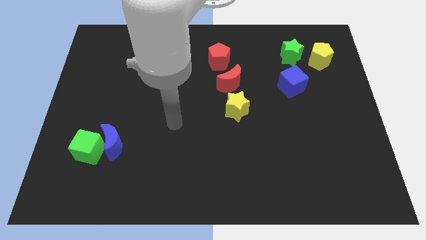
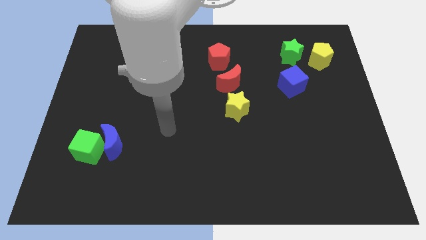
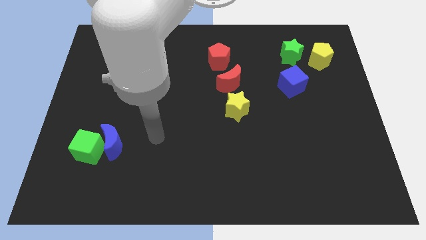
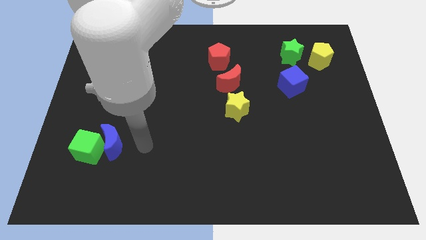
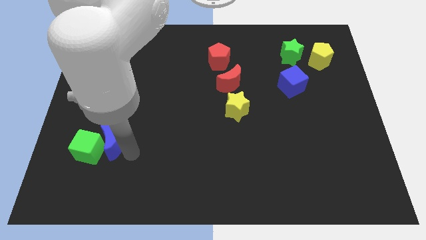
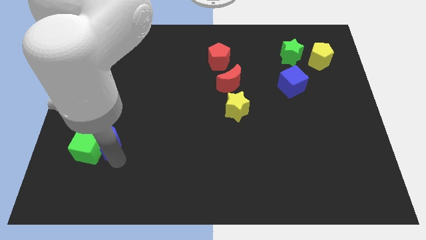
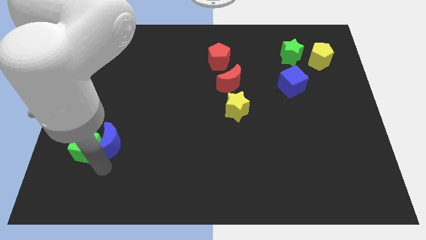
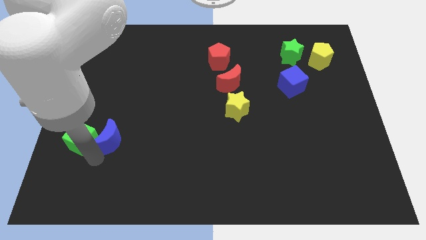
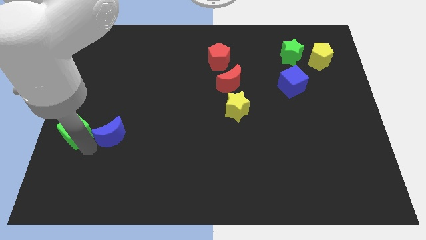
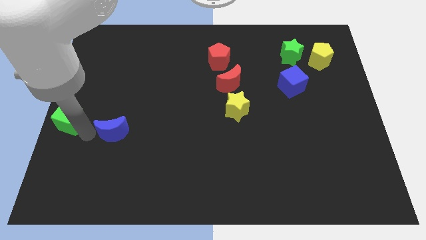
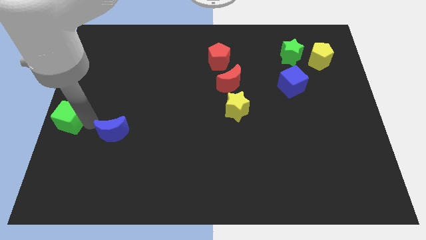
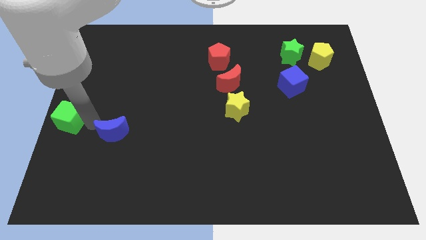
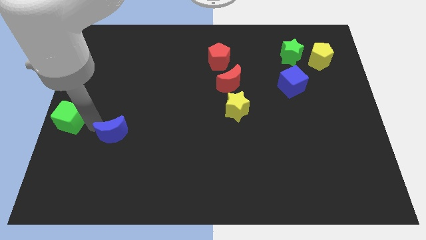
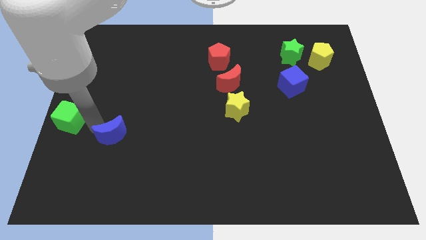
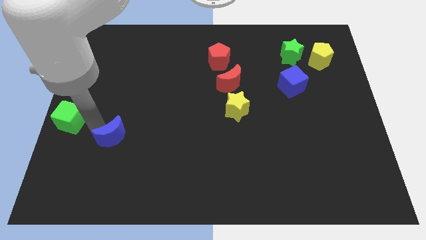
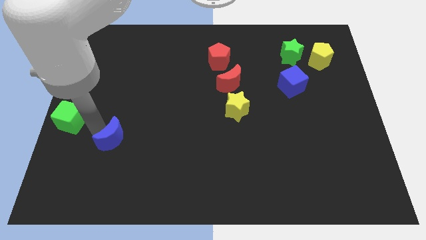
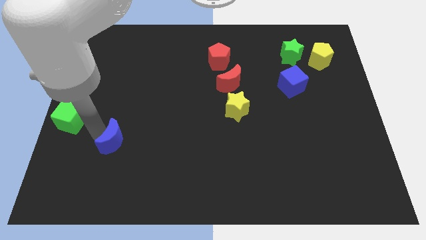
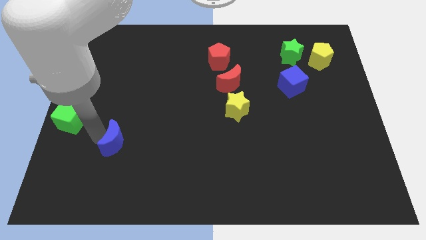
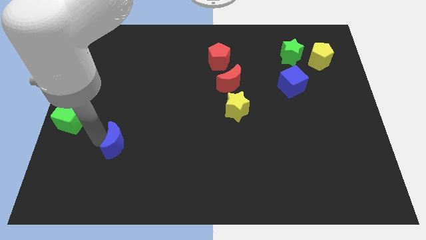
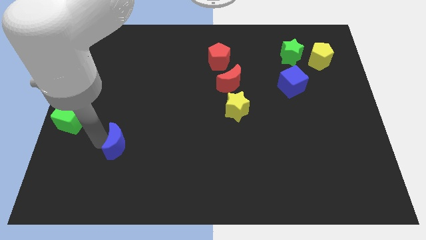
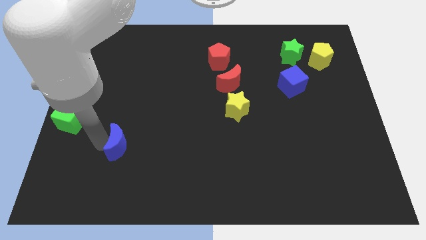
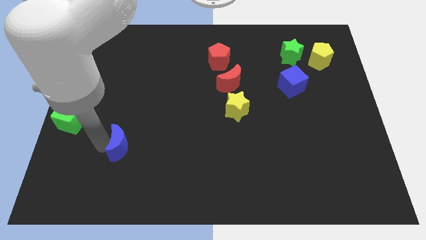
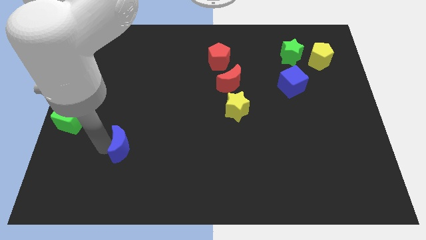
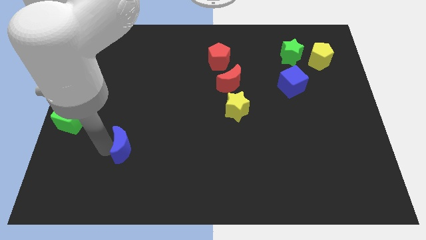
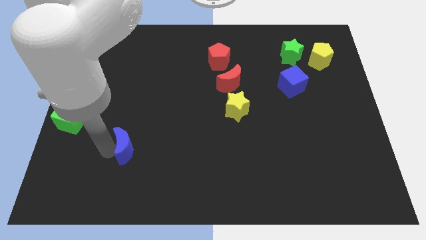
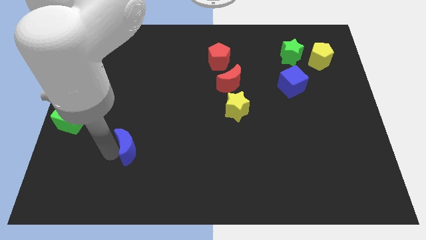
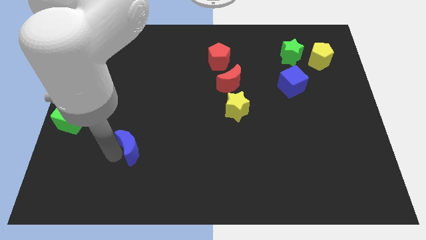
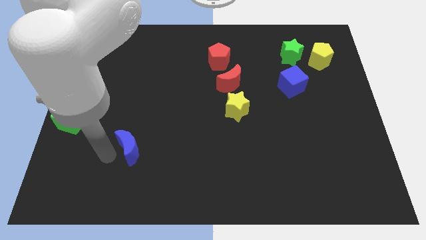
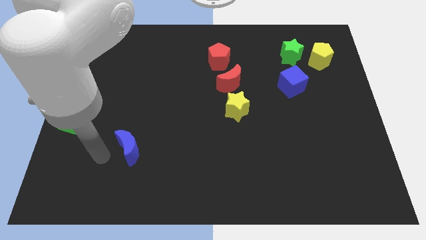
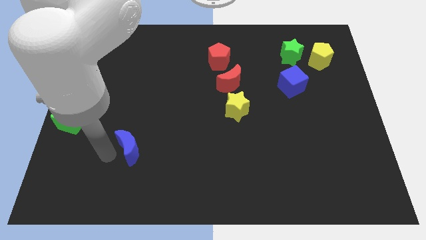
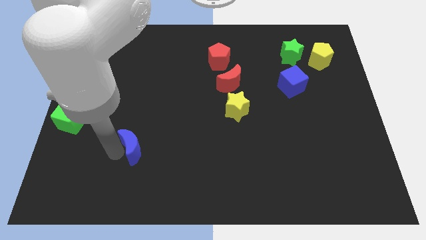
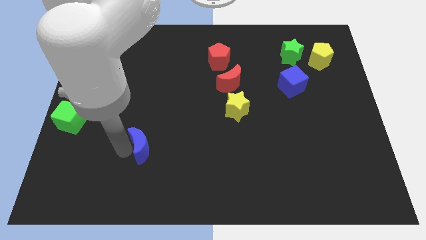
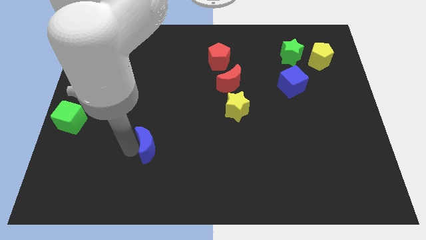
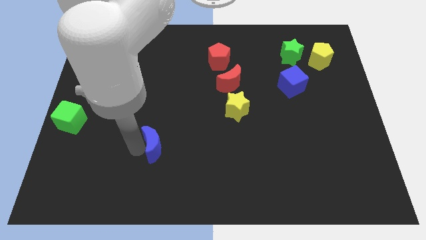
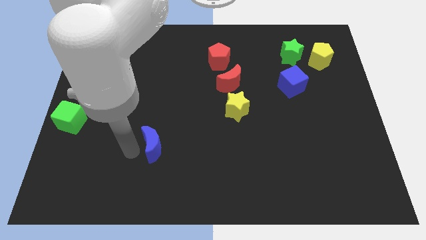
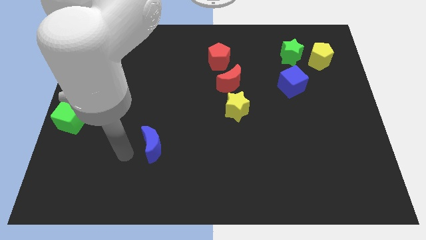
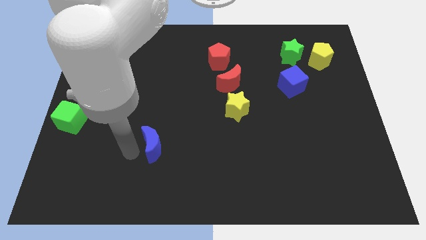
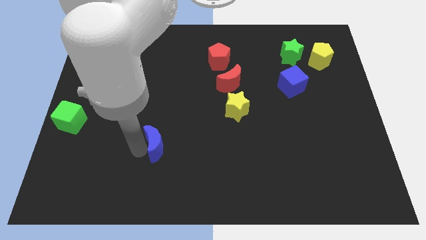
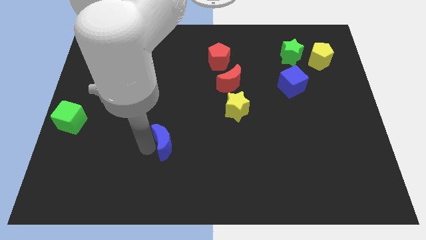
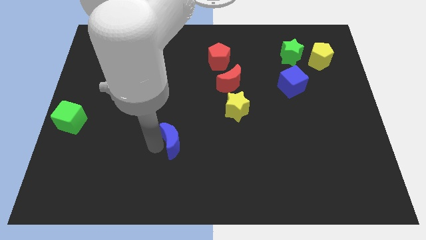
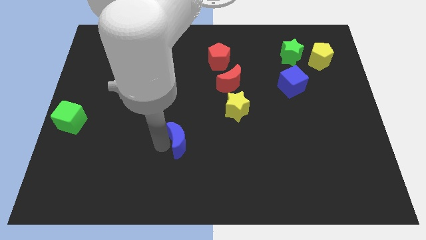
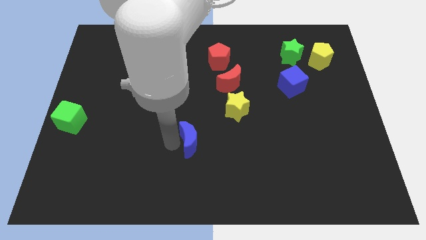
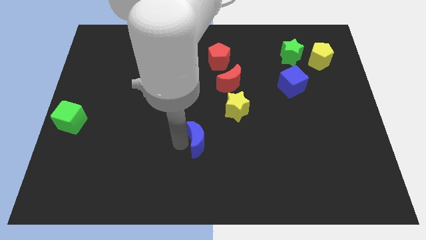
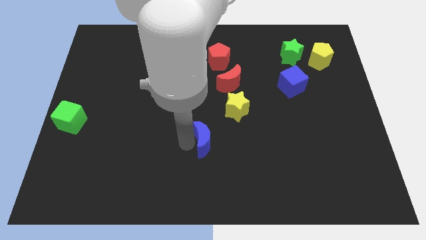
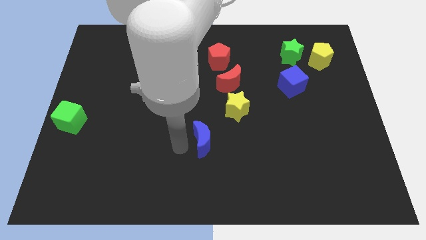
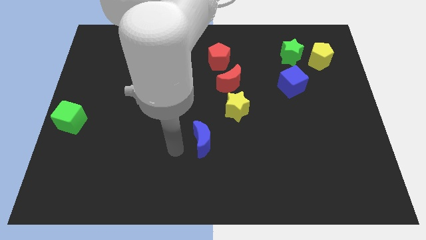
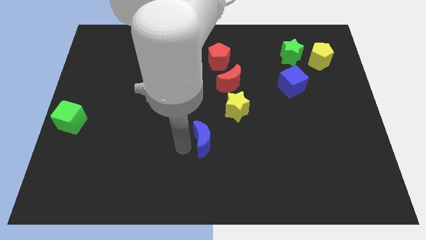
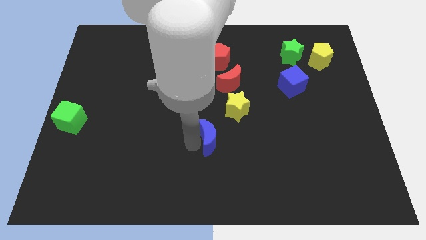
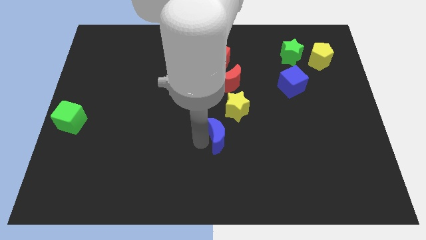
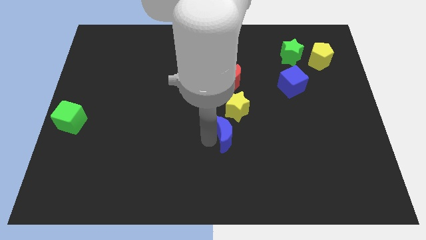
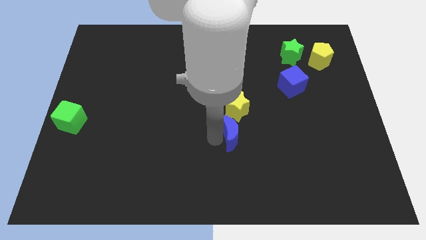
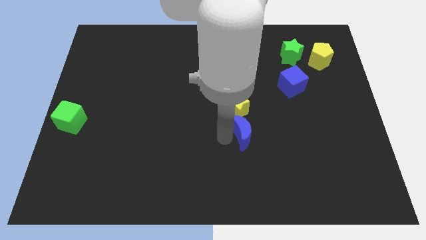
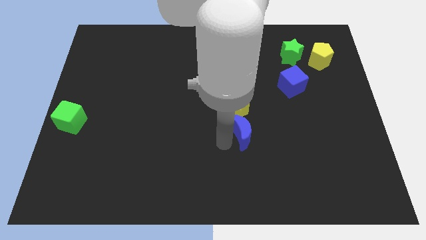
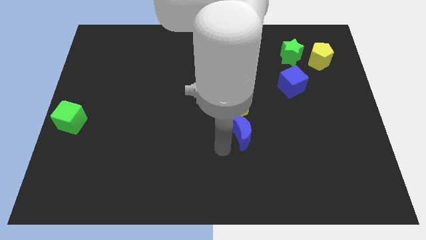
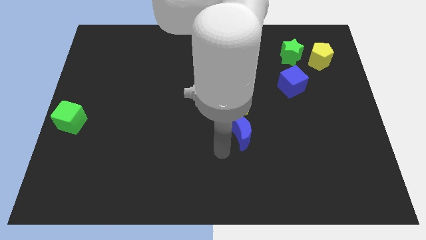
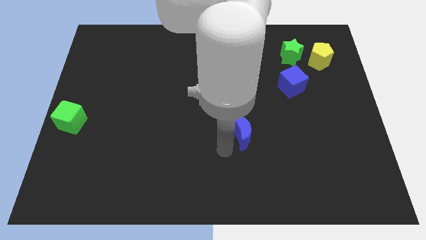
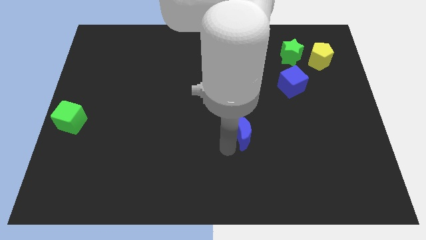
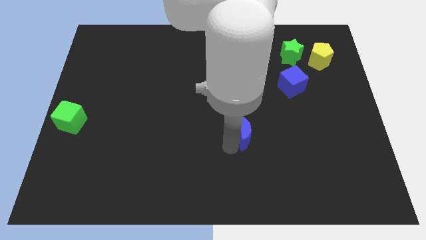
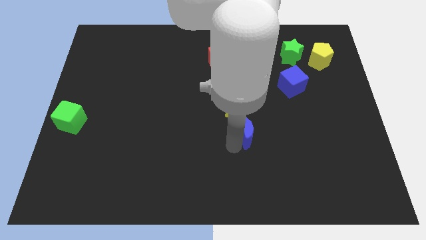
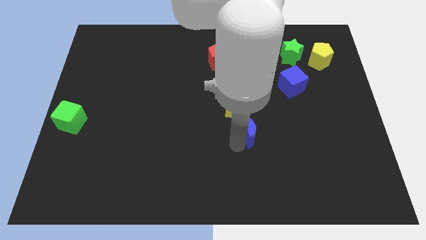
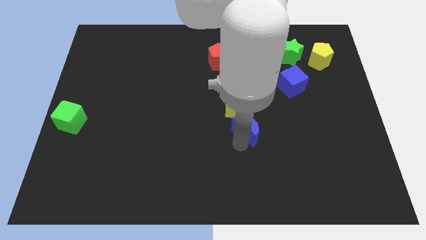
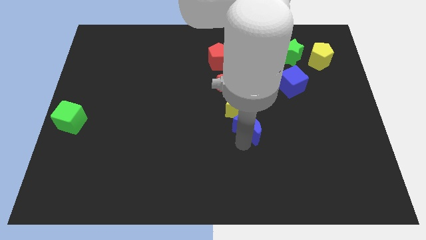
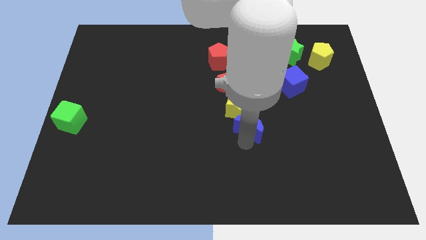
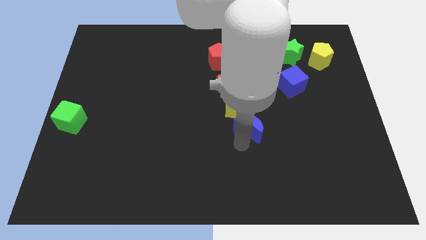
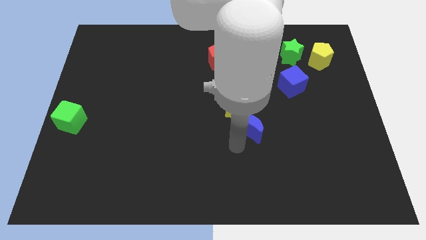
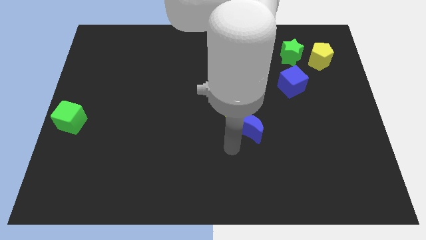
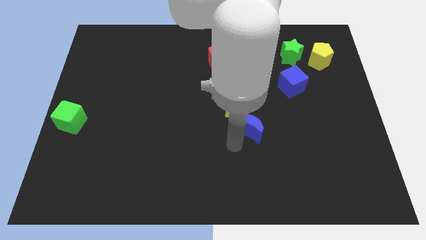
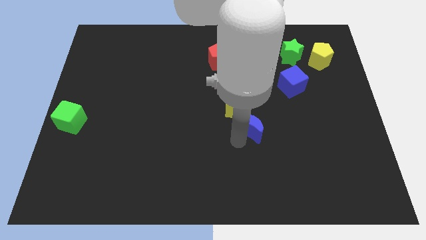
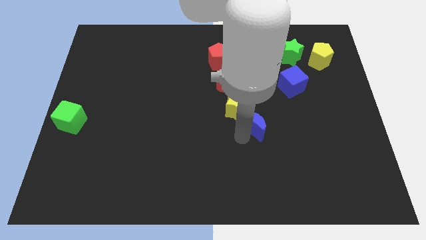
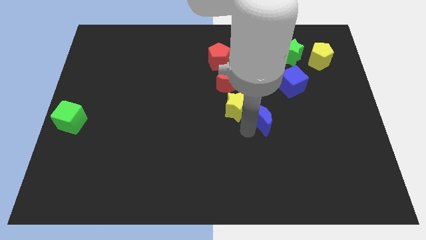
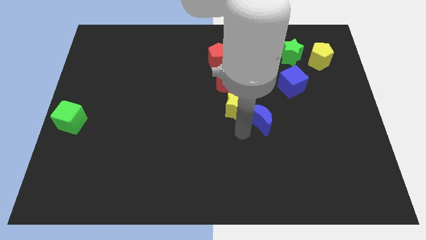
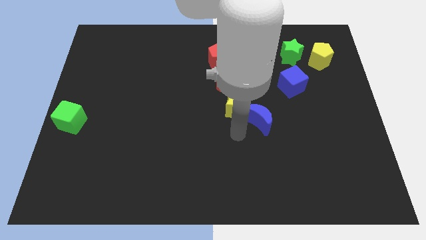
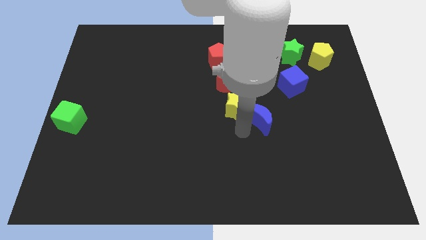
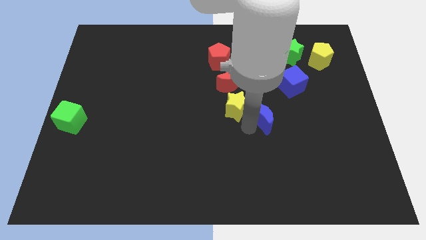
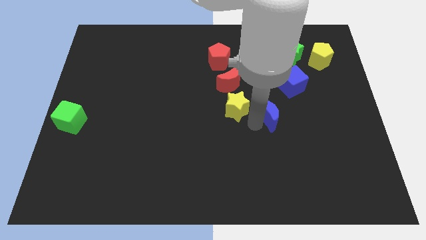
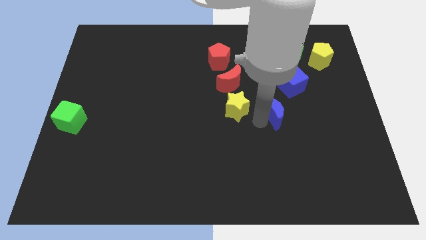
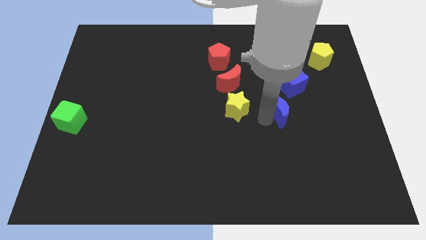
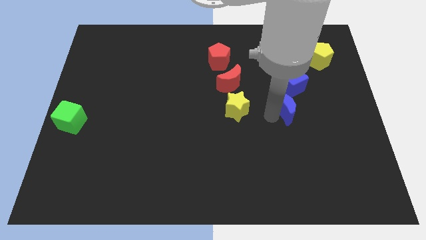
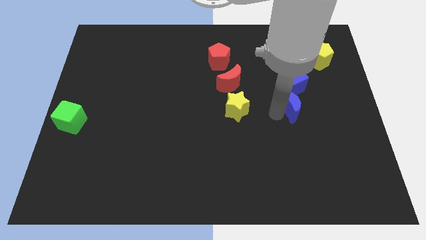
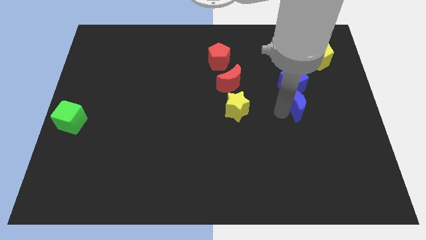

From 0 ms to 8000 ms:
move the blue moon diagonally down and to the right of the blue cube
